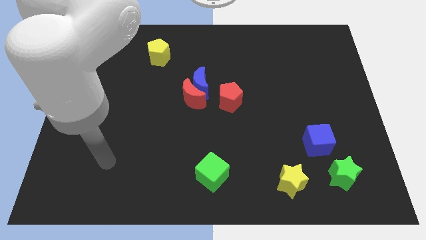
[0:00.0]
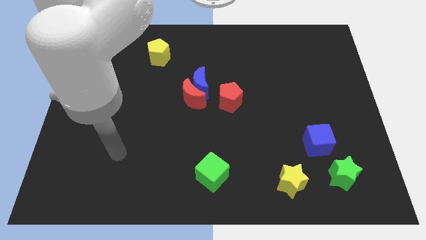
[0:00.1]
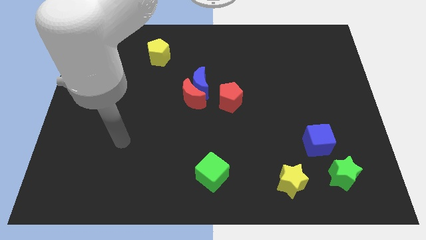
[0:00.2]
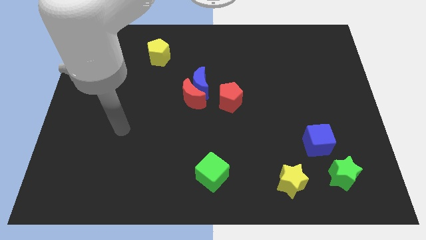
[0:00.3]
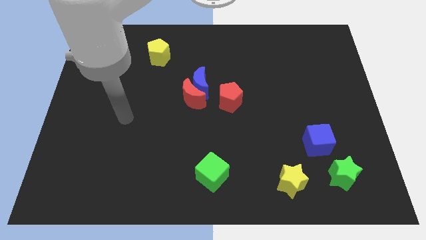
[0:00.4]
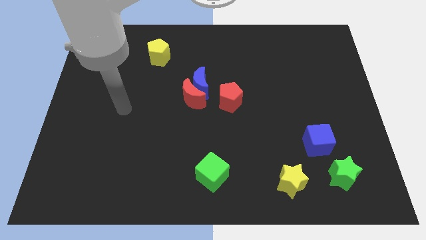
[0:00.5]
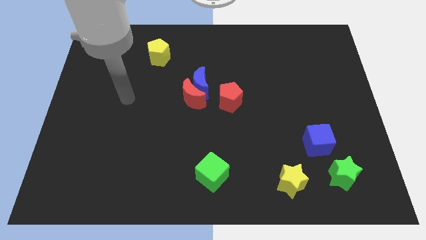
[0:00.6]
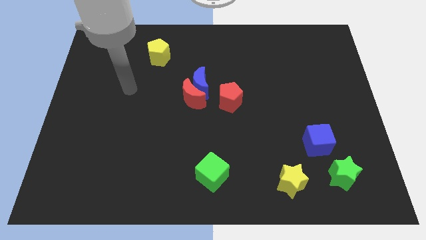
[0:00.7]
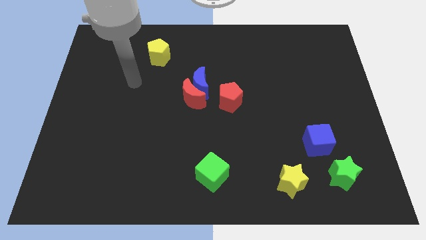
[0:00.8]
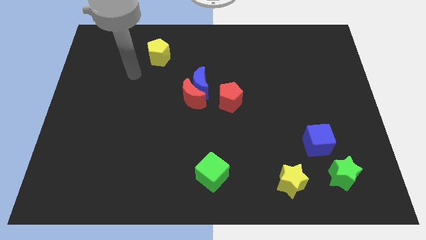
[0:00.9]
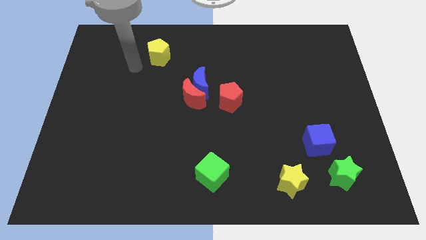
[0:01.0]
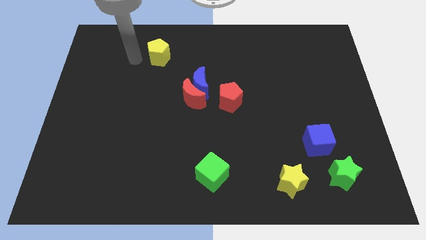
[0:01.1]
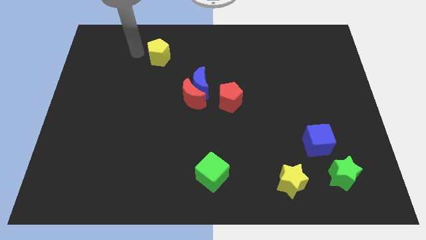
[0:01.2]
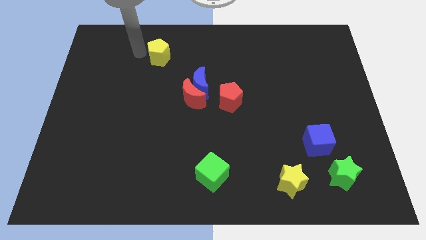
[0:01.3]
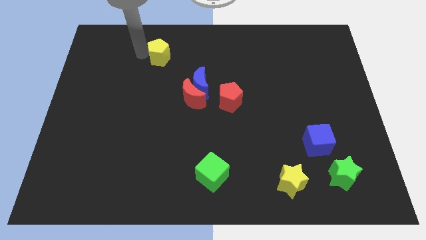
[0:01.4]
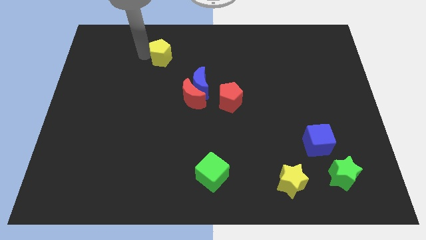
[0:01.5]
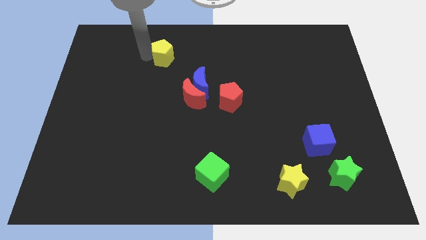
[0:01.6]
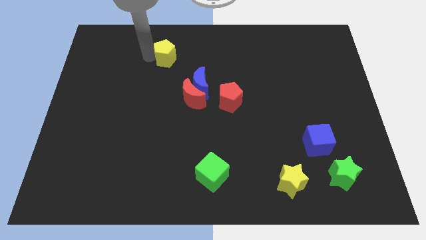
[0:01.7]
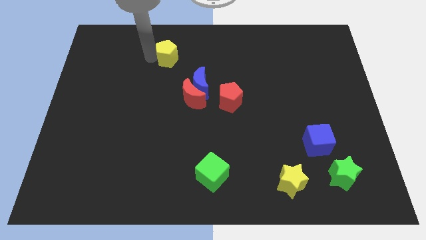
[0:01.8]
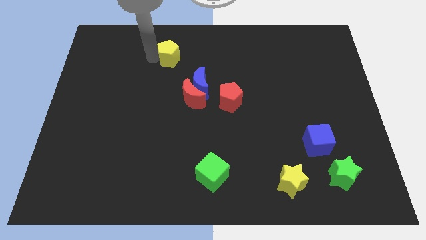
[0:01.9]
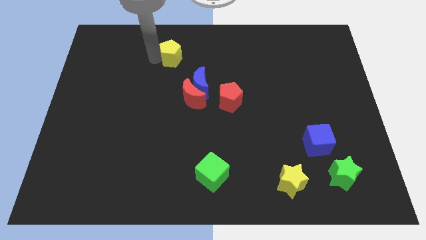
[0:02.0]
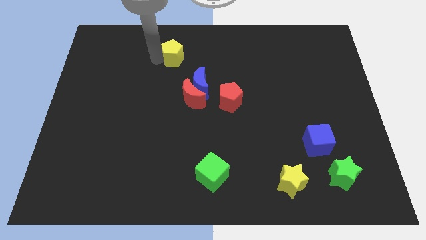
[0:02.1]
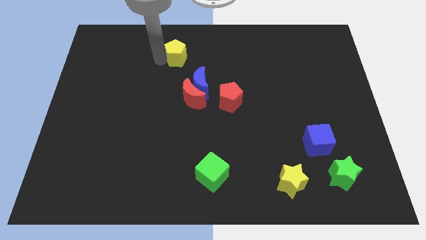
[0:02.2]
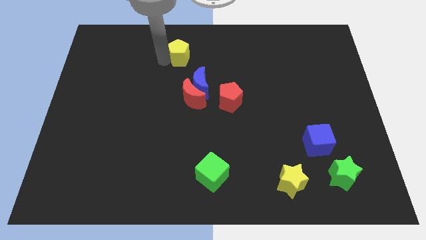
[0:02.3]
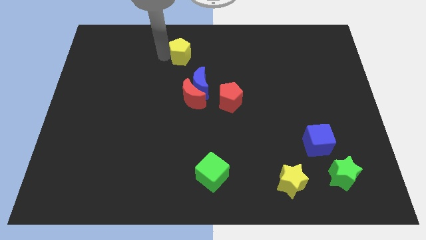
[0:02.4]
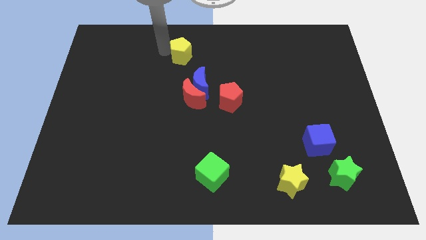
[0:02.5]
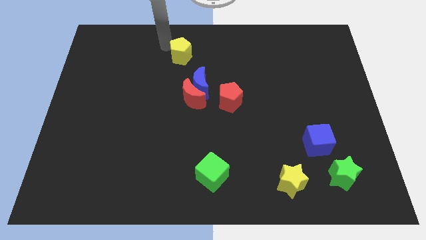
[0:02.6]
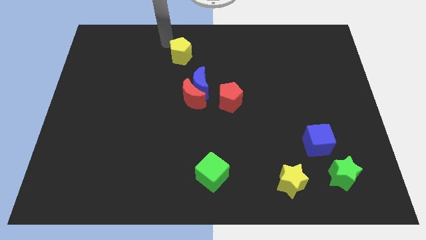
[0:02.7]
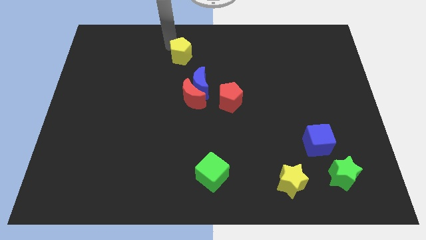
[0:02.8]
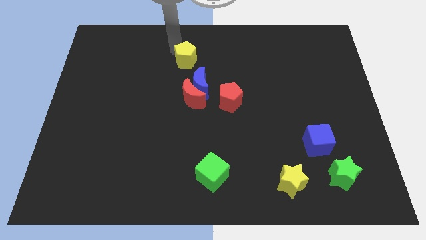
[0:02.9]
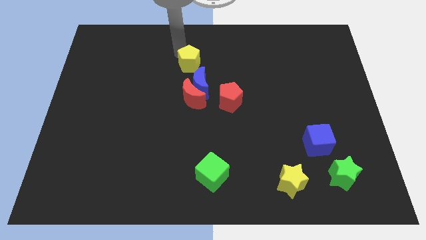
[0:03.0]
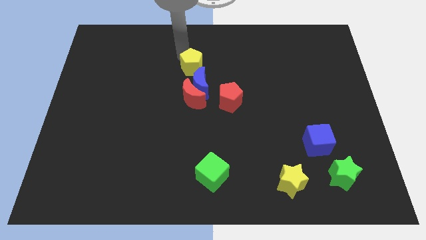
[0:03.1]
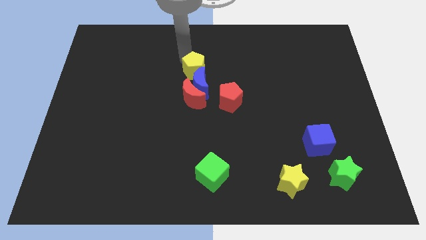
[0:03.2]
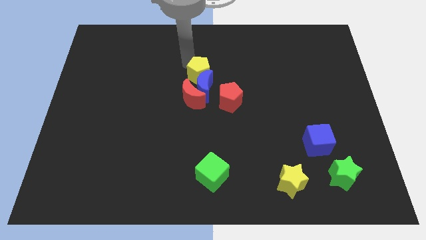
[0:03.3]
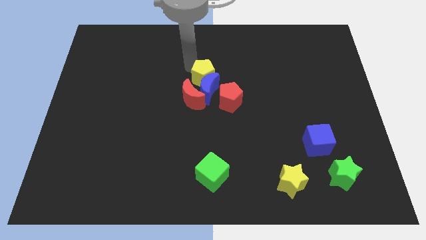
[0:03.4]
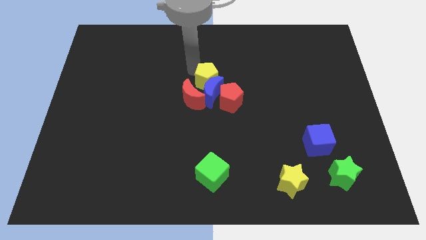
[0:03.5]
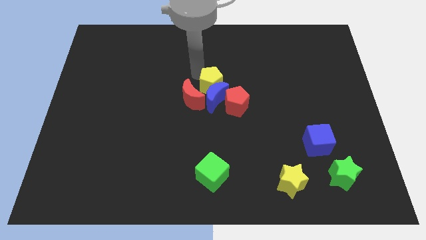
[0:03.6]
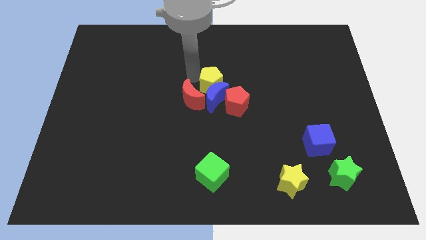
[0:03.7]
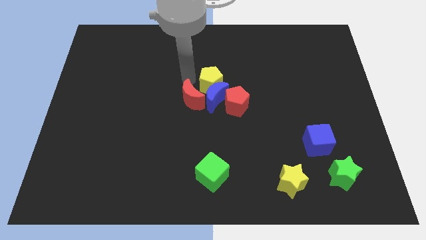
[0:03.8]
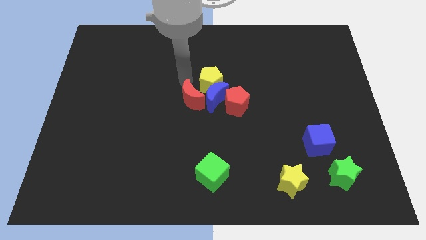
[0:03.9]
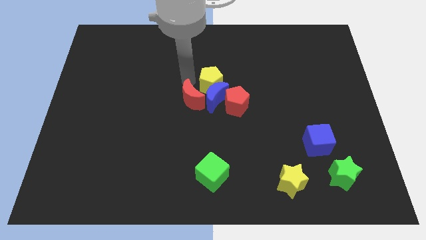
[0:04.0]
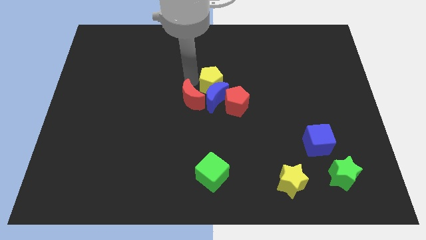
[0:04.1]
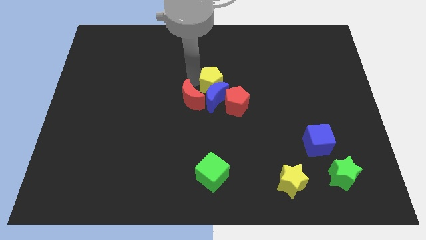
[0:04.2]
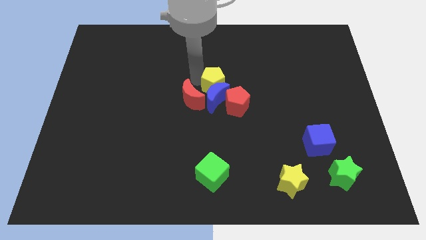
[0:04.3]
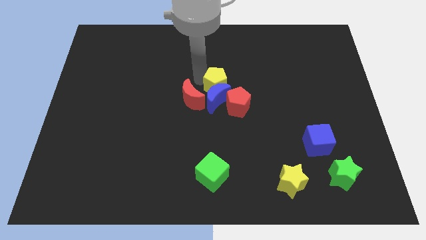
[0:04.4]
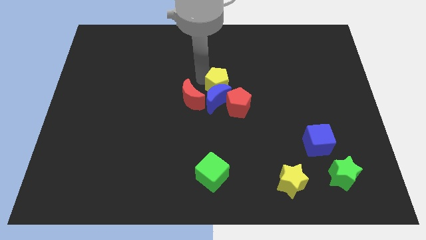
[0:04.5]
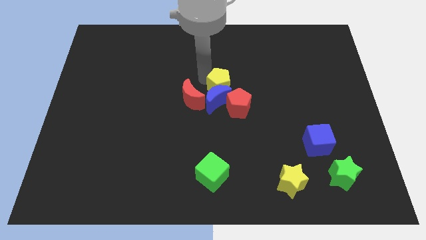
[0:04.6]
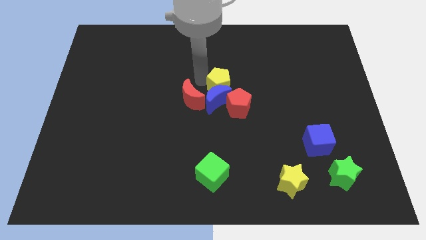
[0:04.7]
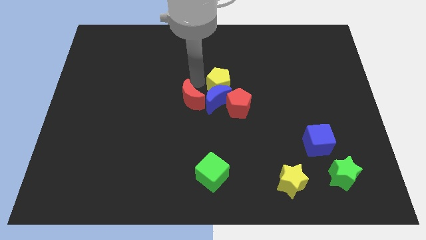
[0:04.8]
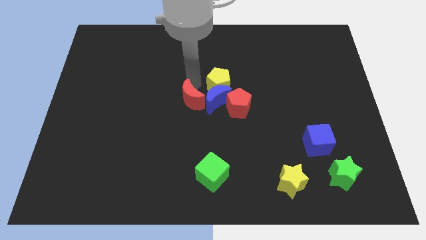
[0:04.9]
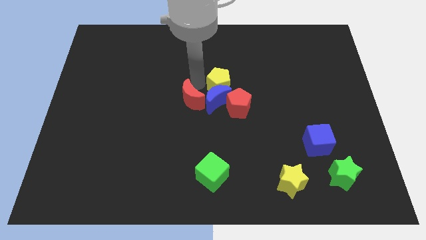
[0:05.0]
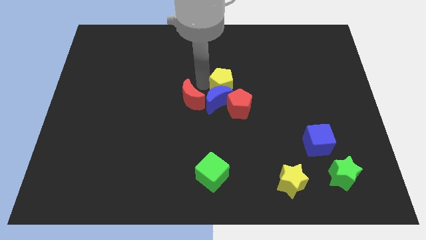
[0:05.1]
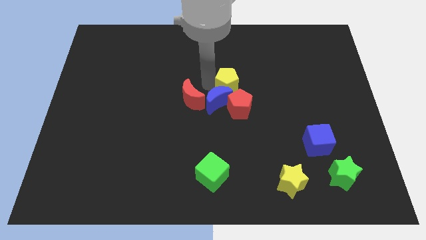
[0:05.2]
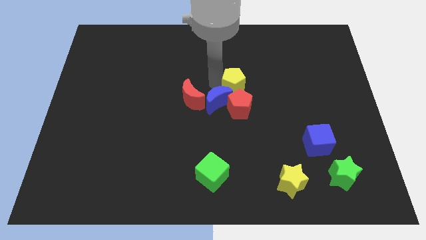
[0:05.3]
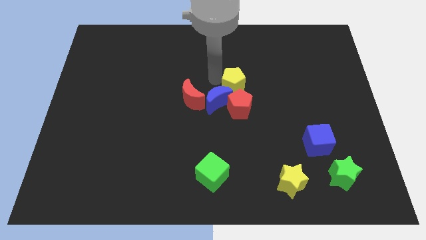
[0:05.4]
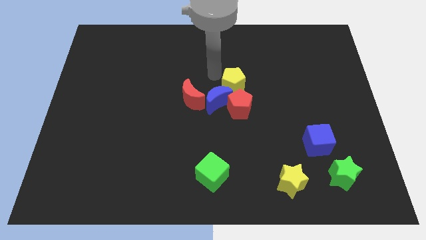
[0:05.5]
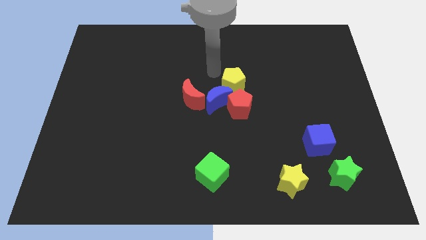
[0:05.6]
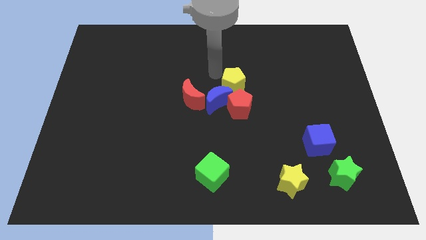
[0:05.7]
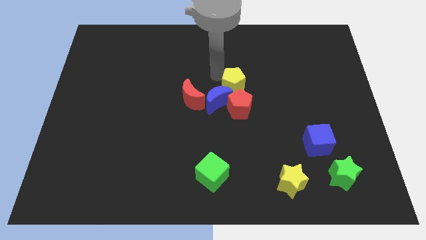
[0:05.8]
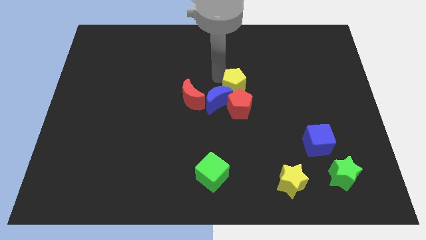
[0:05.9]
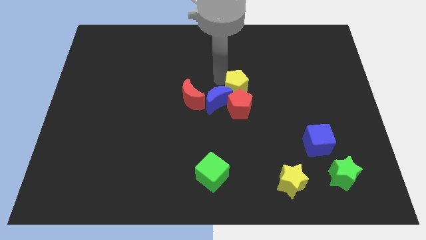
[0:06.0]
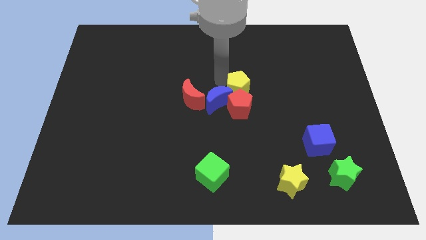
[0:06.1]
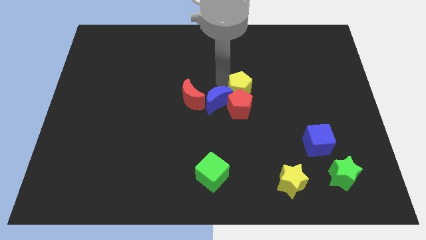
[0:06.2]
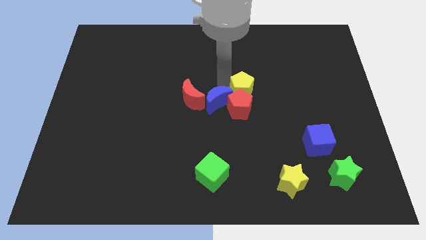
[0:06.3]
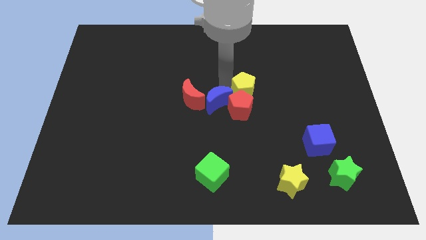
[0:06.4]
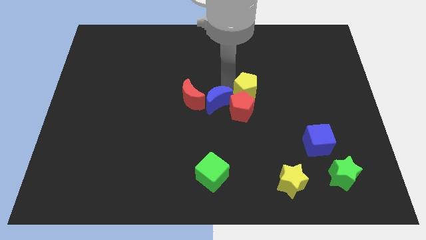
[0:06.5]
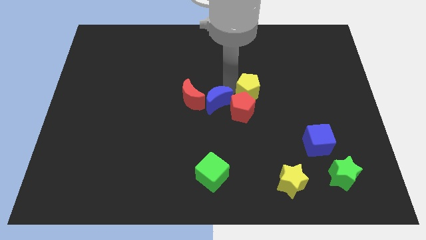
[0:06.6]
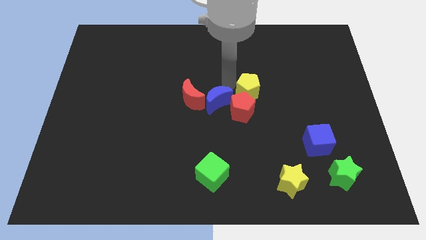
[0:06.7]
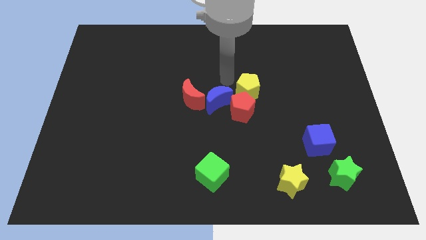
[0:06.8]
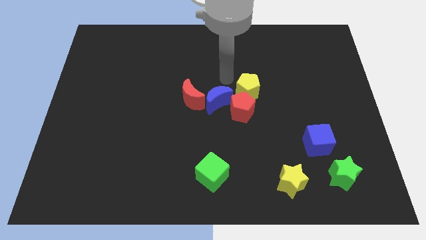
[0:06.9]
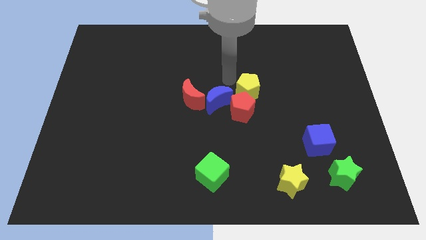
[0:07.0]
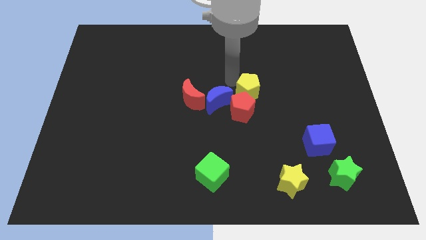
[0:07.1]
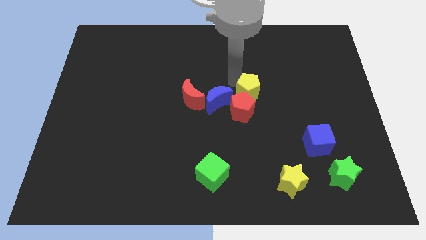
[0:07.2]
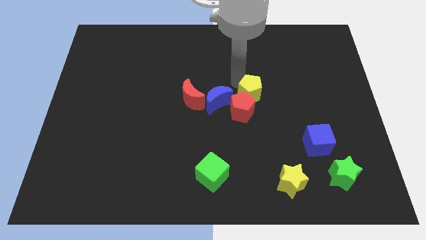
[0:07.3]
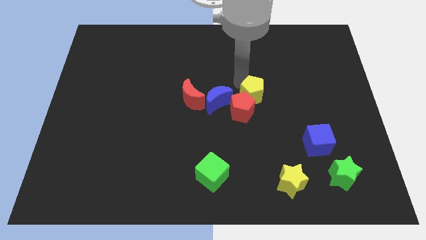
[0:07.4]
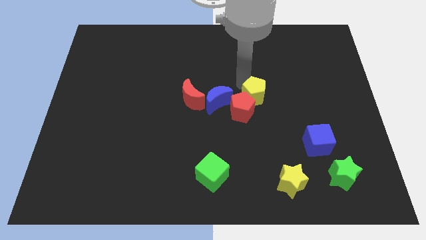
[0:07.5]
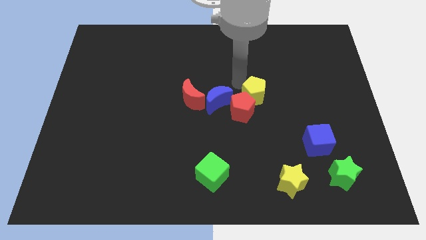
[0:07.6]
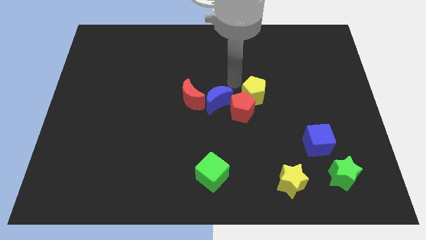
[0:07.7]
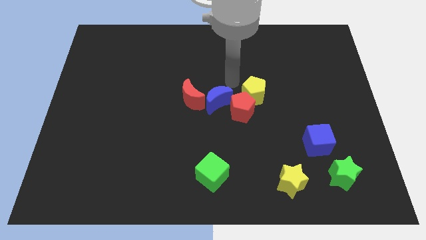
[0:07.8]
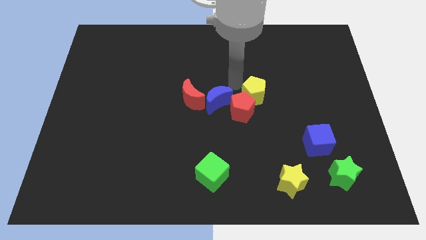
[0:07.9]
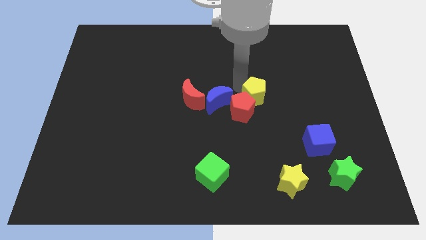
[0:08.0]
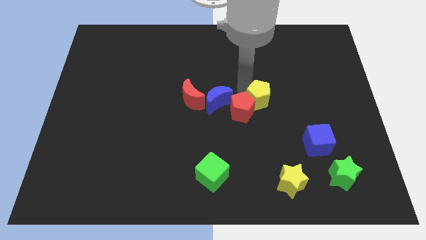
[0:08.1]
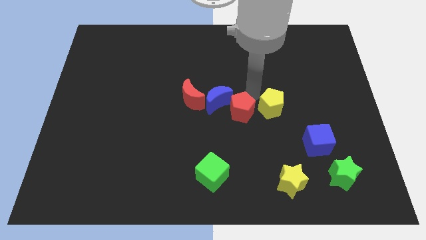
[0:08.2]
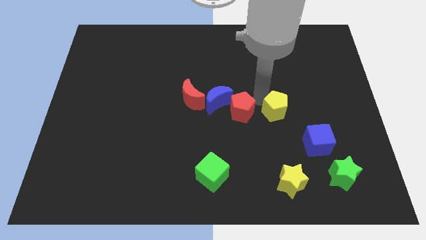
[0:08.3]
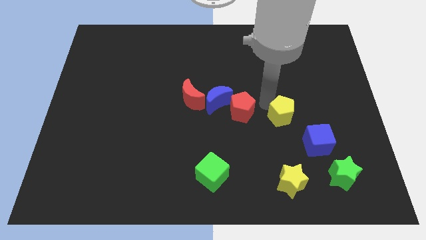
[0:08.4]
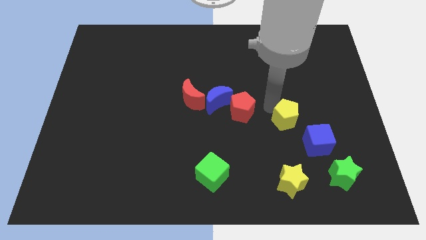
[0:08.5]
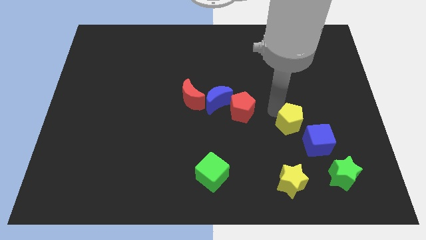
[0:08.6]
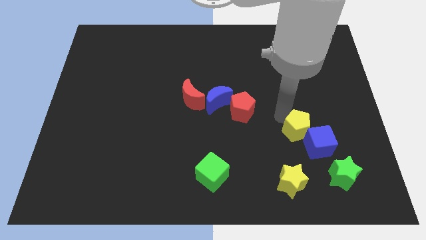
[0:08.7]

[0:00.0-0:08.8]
slide the yellow pentagon to the blue cube
